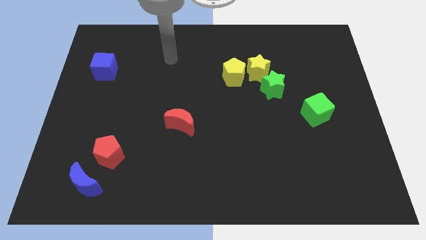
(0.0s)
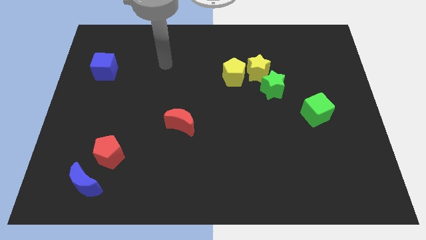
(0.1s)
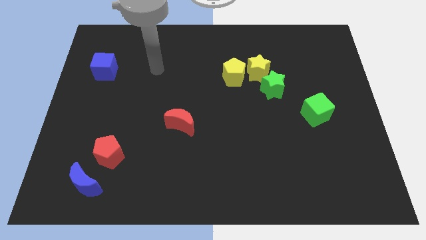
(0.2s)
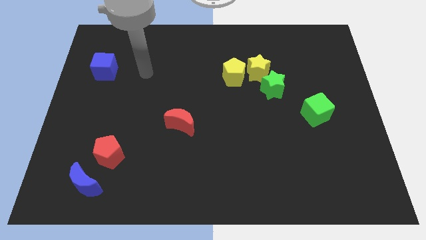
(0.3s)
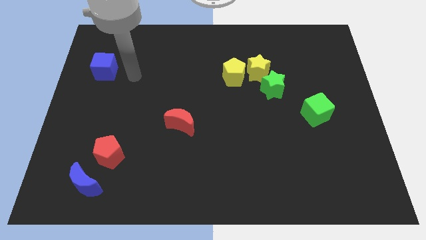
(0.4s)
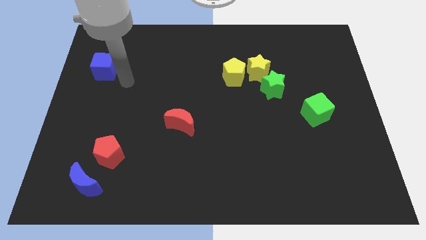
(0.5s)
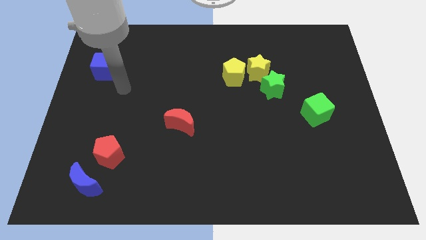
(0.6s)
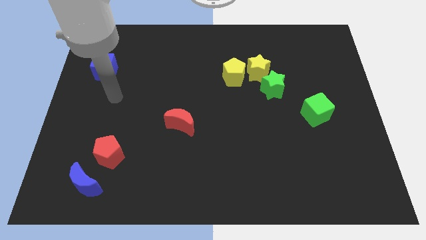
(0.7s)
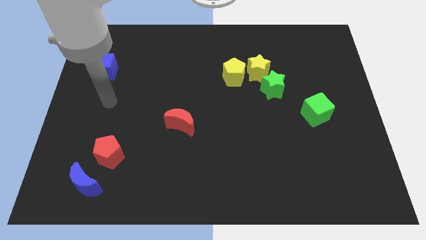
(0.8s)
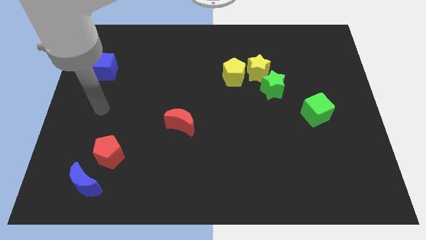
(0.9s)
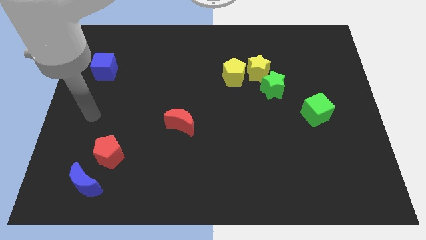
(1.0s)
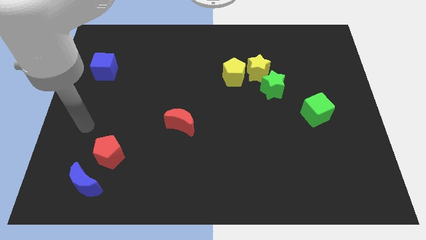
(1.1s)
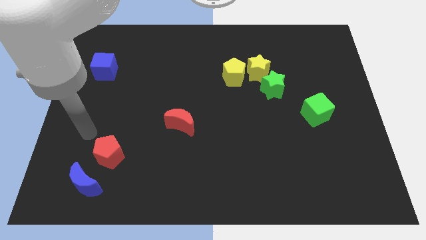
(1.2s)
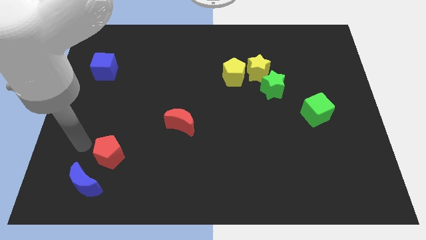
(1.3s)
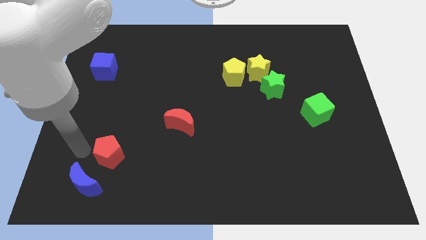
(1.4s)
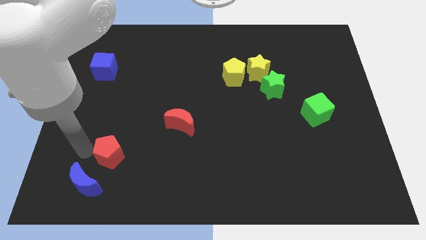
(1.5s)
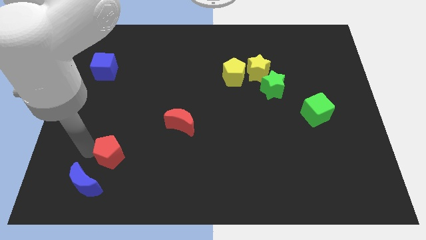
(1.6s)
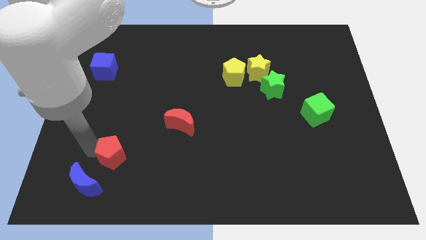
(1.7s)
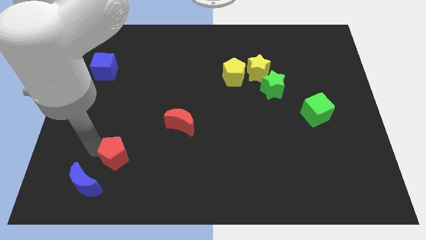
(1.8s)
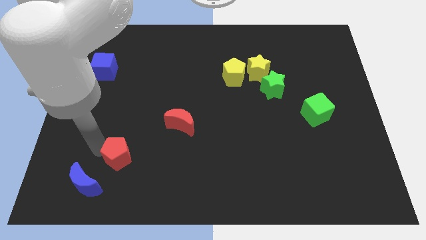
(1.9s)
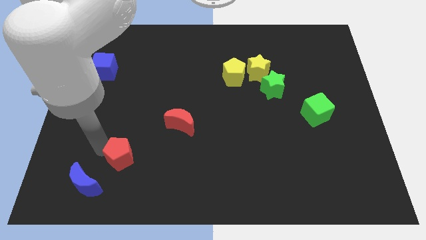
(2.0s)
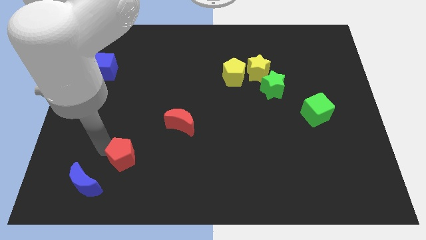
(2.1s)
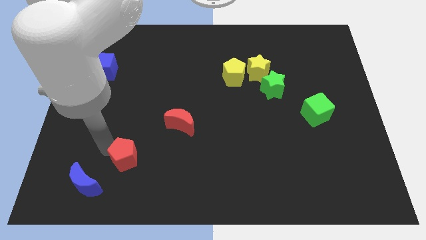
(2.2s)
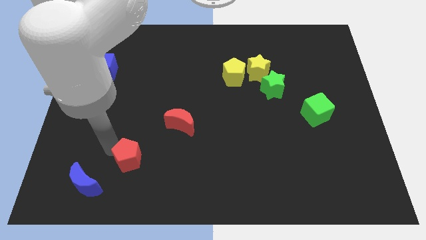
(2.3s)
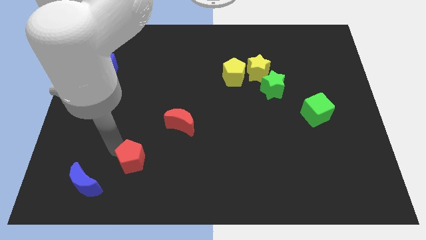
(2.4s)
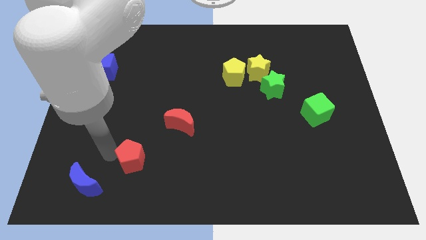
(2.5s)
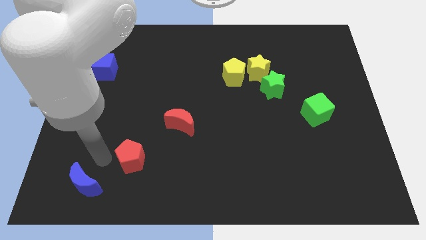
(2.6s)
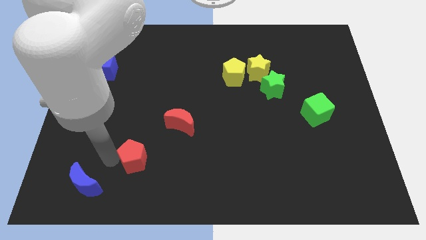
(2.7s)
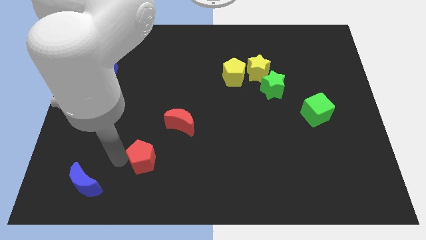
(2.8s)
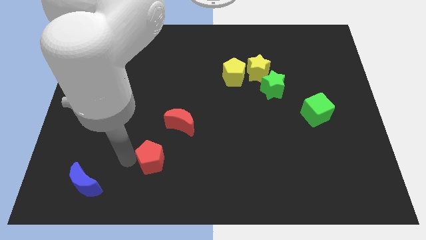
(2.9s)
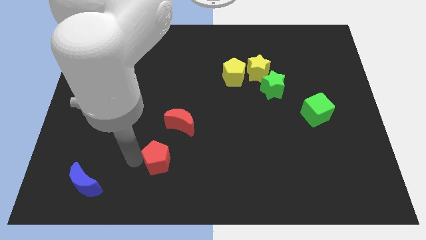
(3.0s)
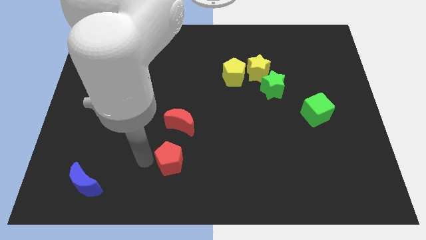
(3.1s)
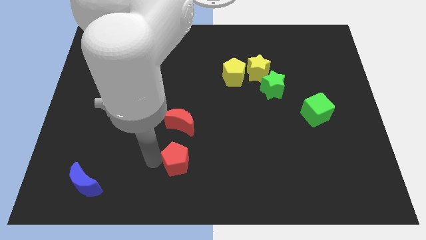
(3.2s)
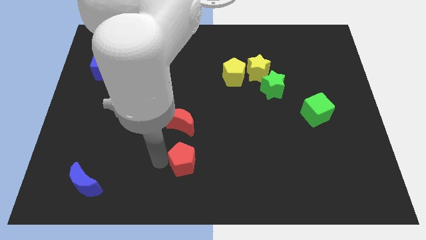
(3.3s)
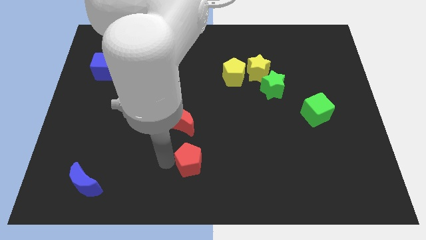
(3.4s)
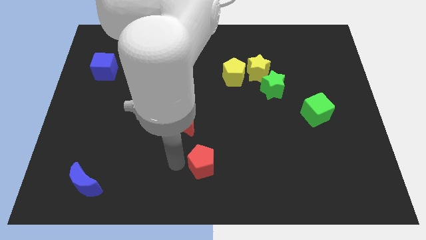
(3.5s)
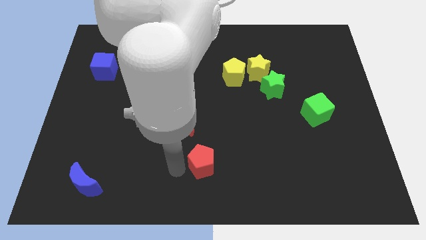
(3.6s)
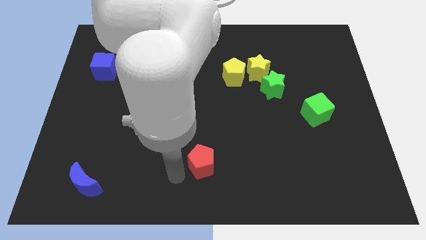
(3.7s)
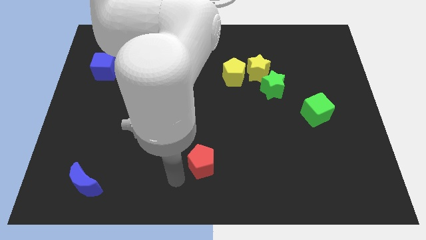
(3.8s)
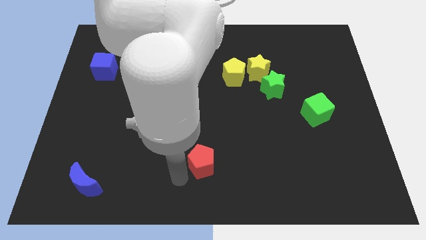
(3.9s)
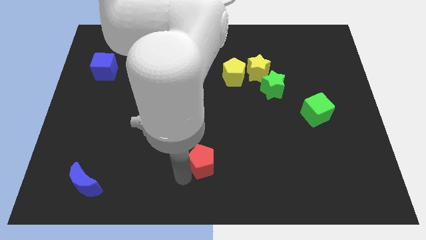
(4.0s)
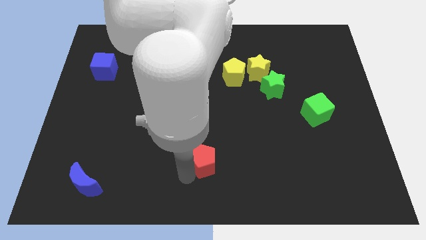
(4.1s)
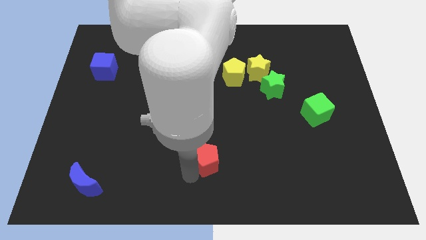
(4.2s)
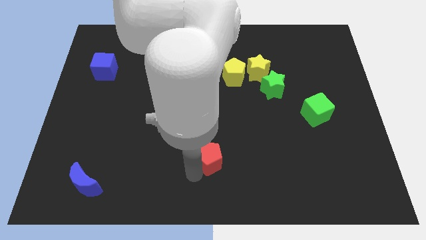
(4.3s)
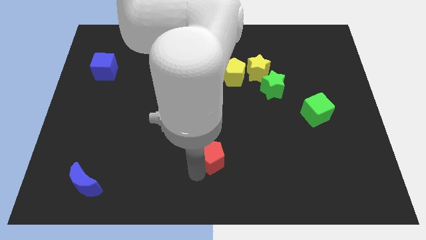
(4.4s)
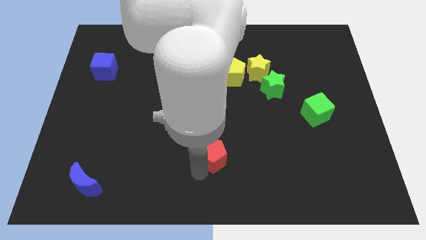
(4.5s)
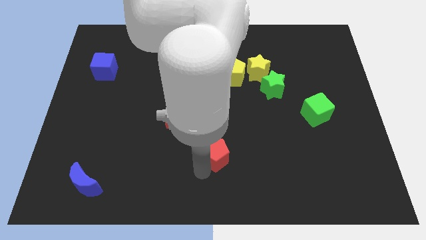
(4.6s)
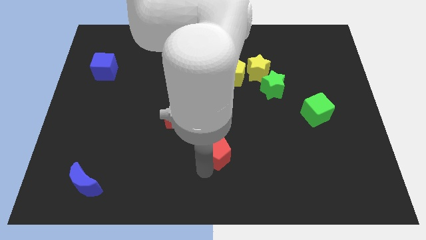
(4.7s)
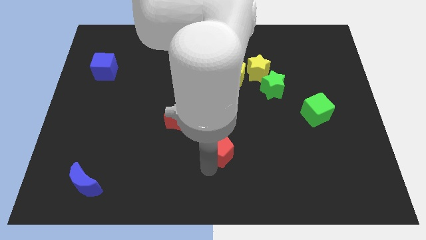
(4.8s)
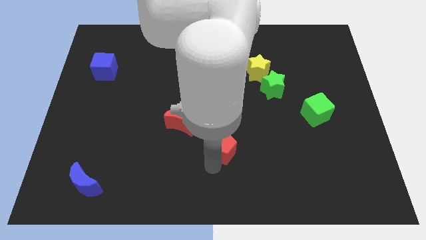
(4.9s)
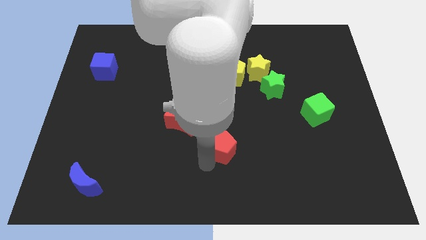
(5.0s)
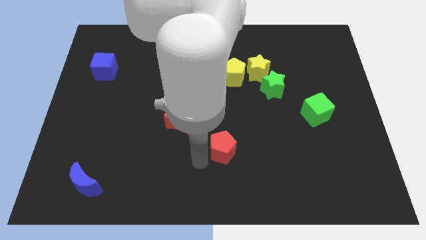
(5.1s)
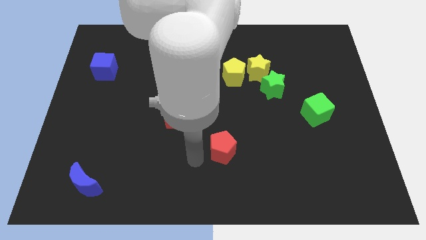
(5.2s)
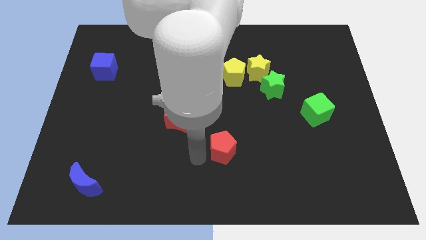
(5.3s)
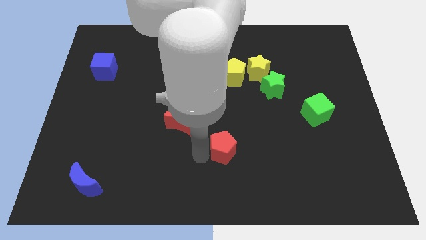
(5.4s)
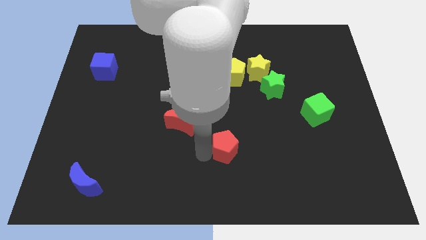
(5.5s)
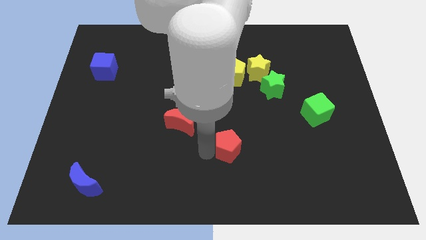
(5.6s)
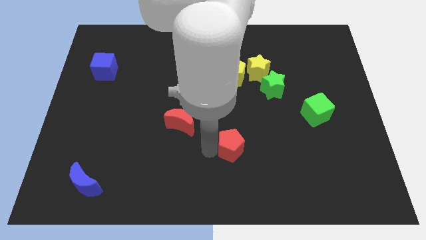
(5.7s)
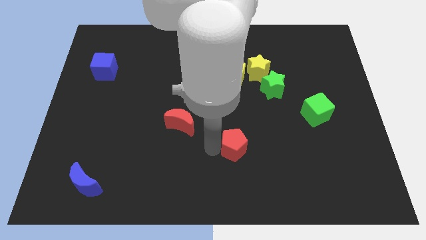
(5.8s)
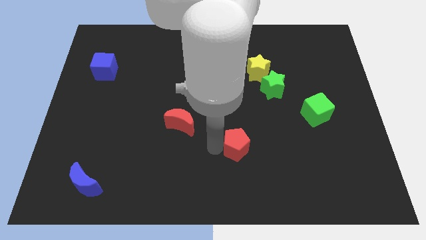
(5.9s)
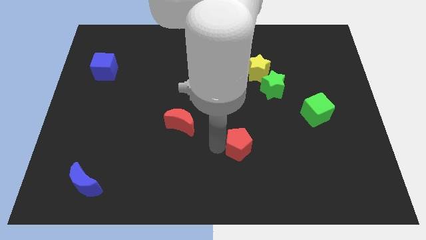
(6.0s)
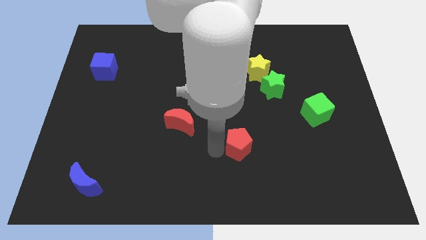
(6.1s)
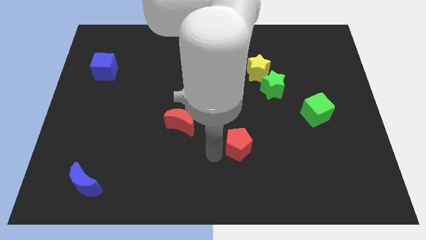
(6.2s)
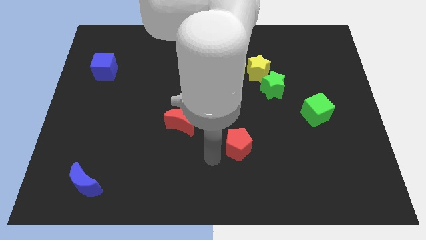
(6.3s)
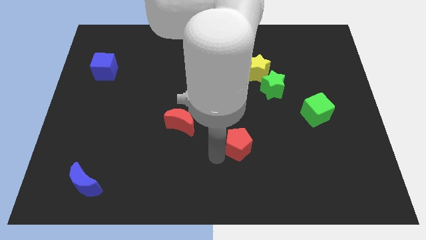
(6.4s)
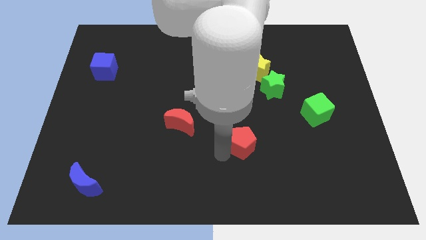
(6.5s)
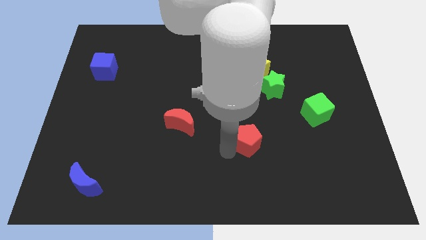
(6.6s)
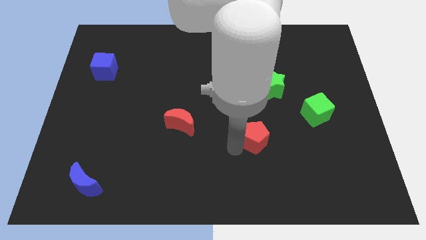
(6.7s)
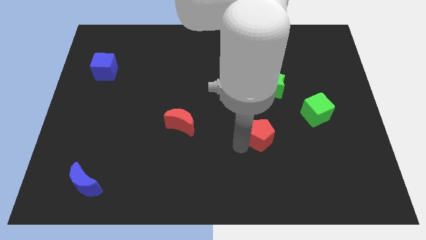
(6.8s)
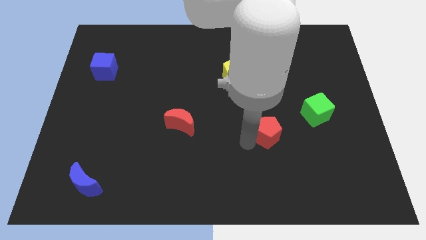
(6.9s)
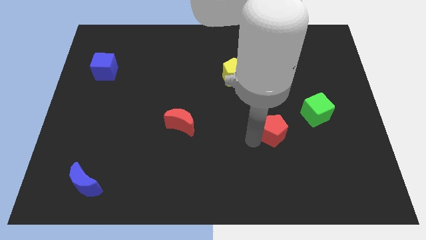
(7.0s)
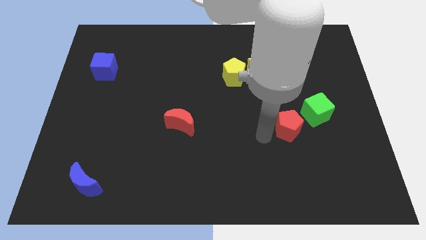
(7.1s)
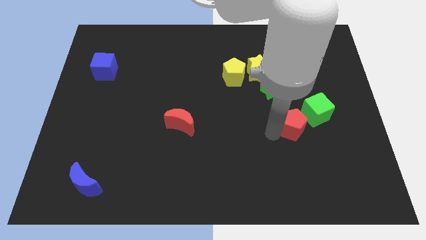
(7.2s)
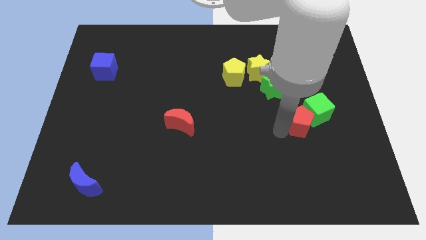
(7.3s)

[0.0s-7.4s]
move the red pentagon towards the green cube

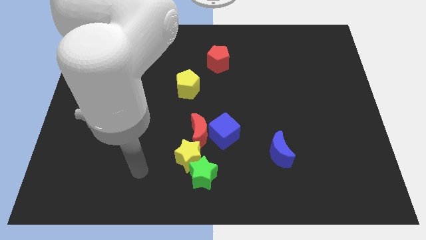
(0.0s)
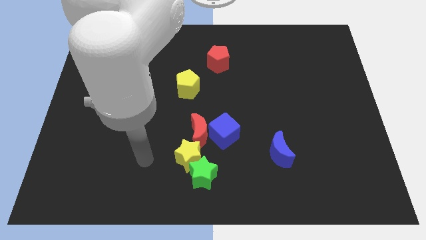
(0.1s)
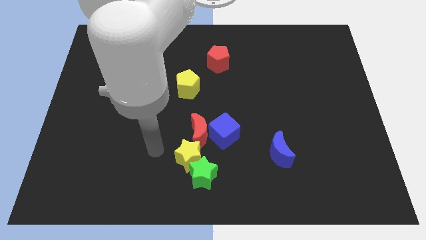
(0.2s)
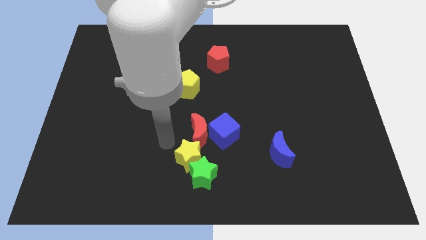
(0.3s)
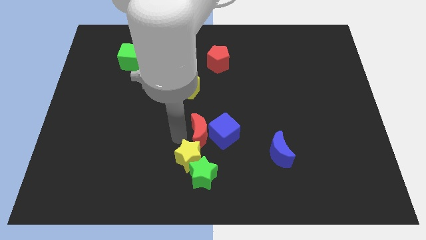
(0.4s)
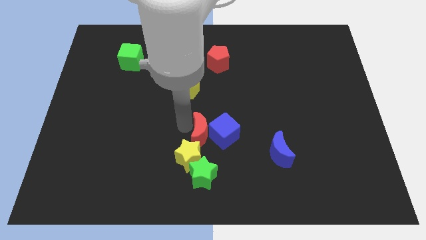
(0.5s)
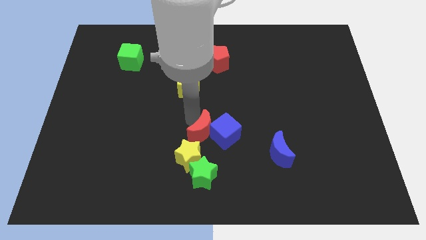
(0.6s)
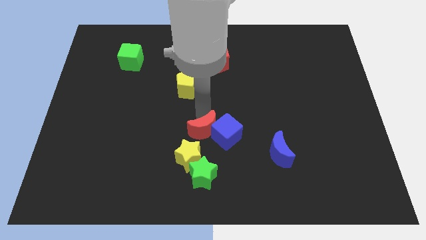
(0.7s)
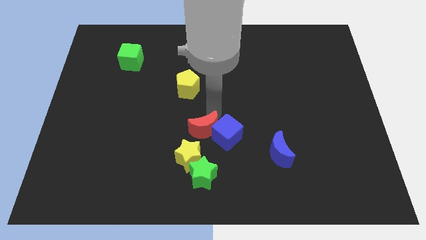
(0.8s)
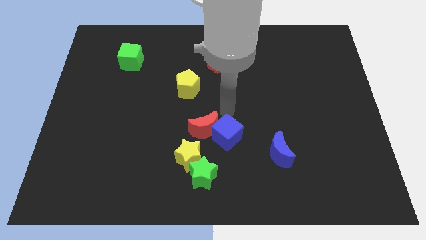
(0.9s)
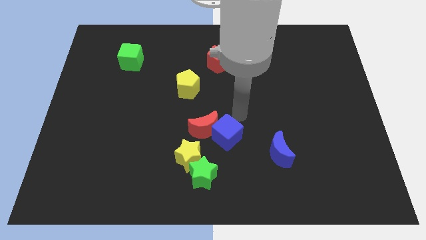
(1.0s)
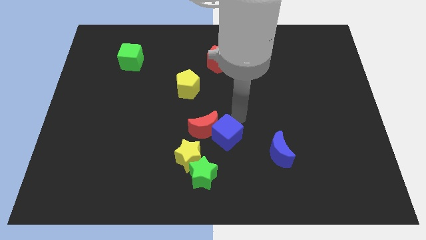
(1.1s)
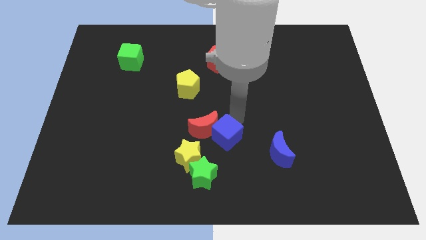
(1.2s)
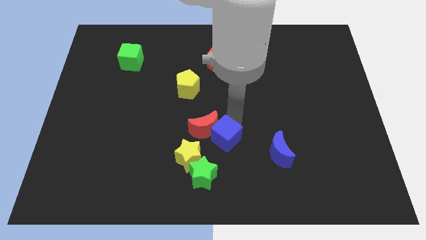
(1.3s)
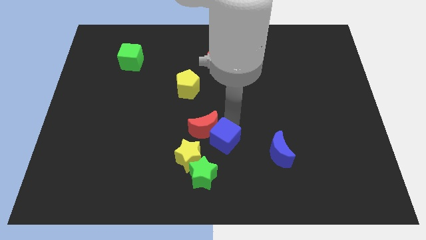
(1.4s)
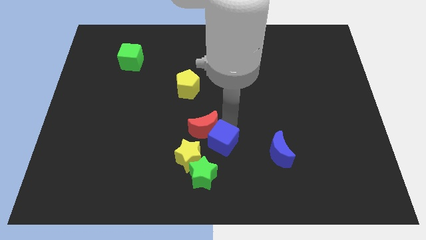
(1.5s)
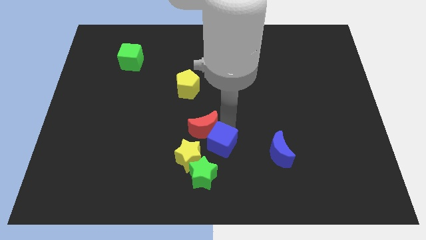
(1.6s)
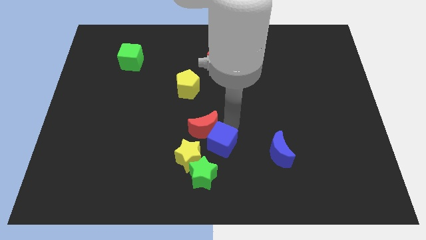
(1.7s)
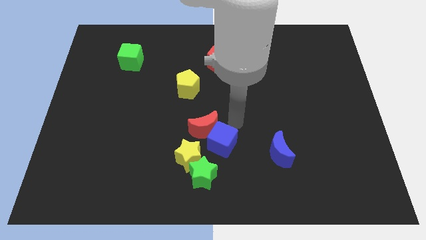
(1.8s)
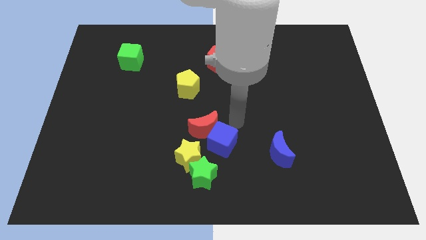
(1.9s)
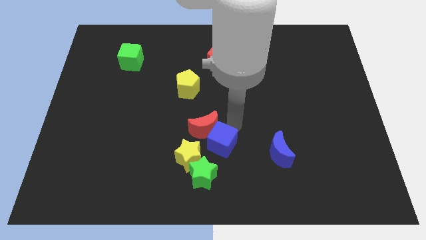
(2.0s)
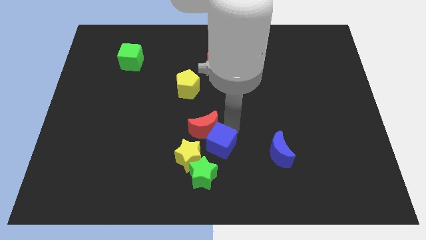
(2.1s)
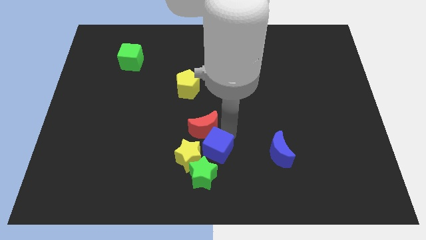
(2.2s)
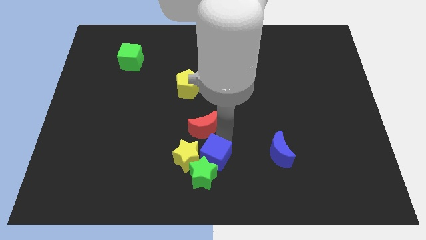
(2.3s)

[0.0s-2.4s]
put the blue cube to the green star
